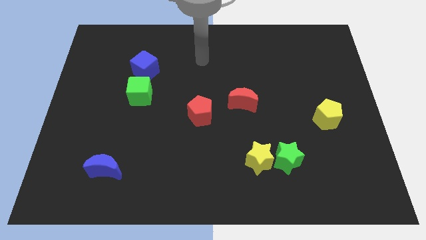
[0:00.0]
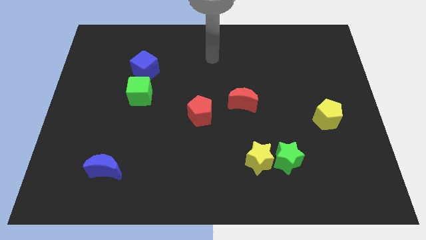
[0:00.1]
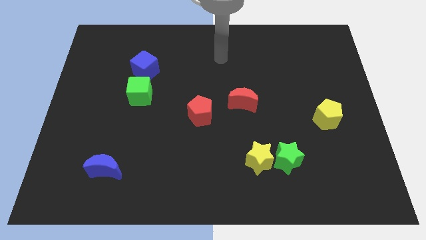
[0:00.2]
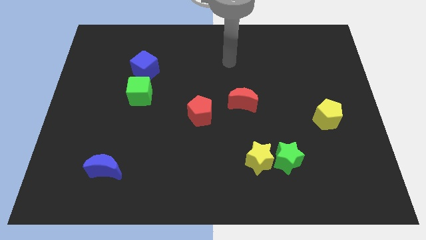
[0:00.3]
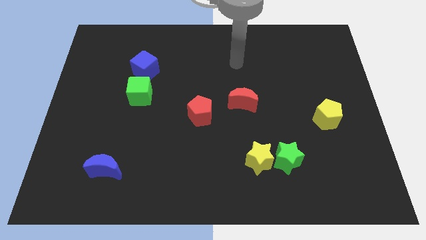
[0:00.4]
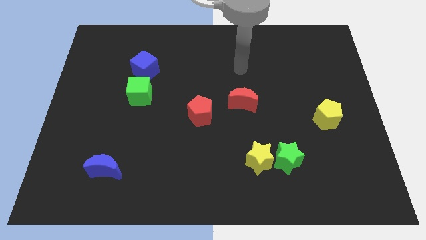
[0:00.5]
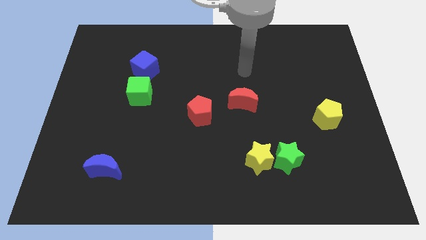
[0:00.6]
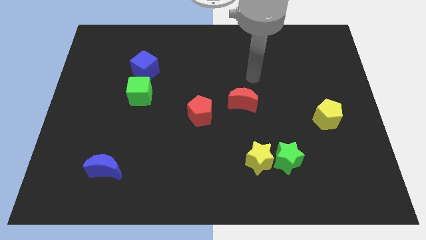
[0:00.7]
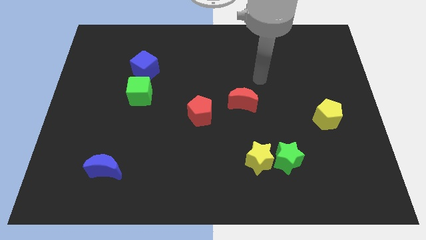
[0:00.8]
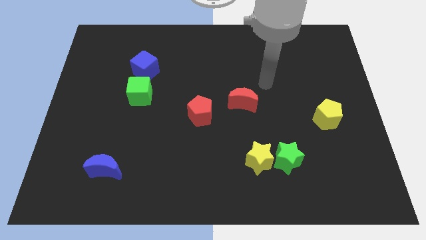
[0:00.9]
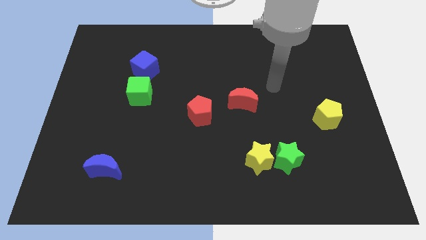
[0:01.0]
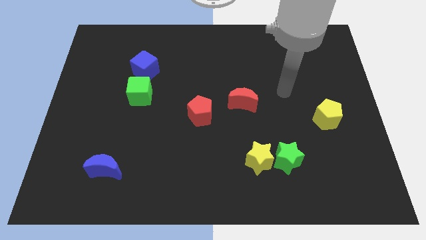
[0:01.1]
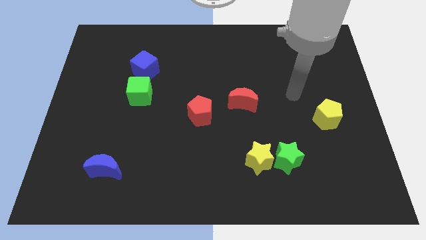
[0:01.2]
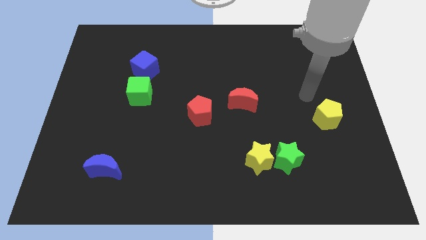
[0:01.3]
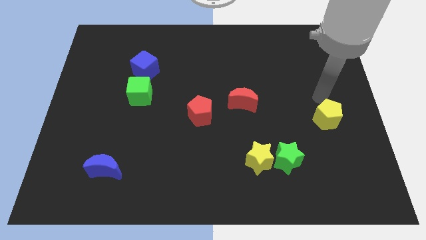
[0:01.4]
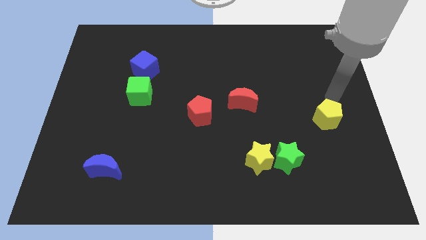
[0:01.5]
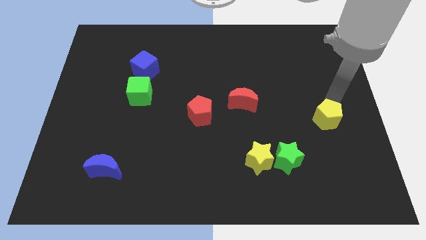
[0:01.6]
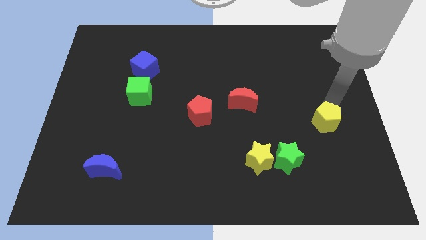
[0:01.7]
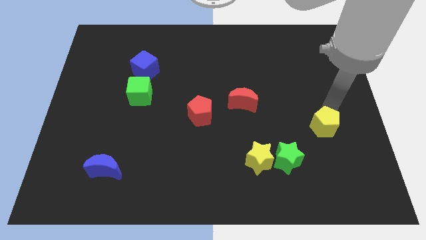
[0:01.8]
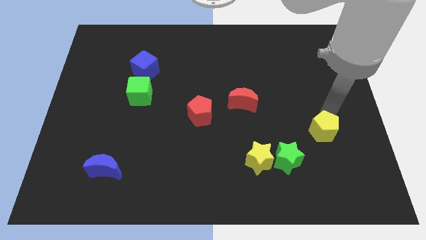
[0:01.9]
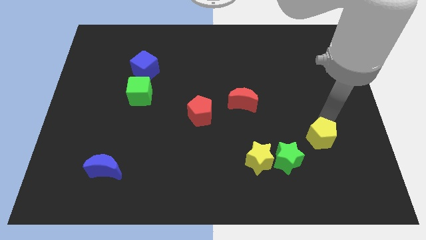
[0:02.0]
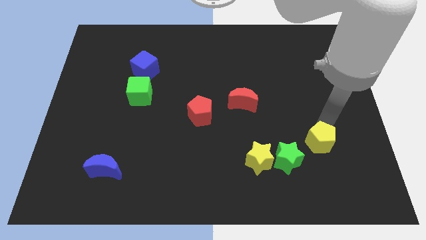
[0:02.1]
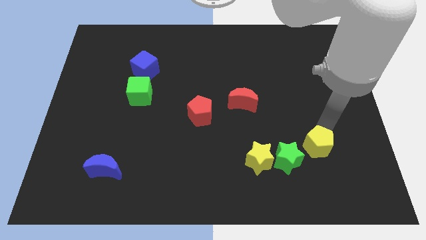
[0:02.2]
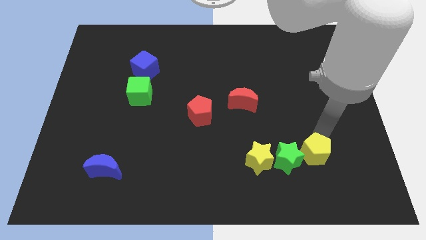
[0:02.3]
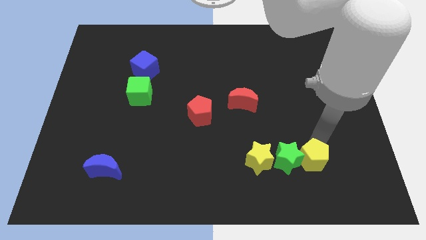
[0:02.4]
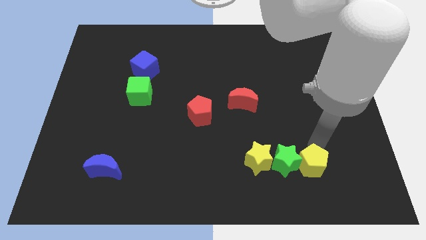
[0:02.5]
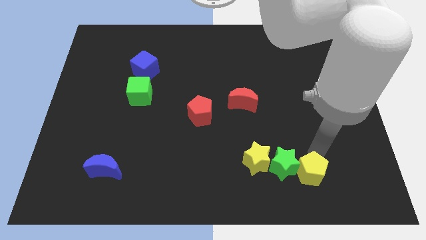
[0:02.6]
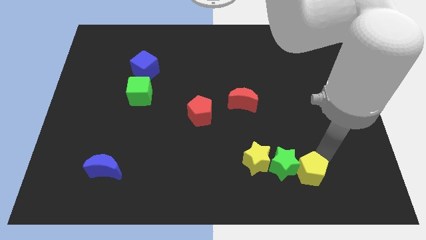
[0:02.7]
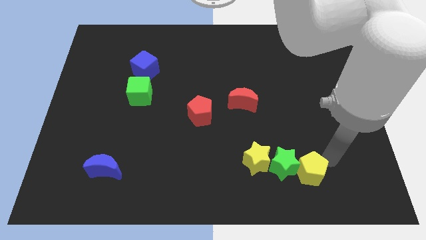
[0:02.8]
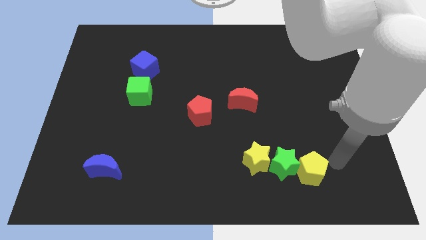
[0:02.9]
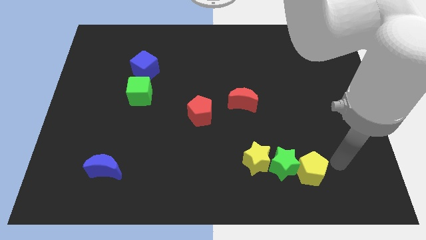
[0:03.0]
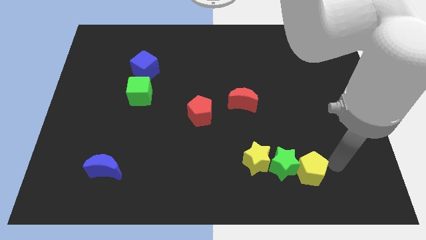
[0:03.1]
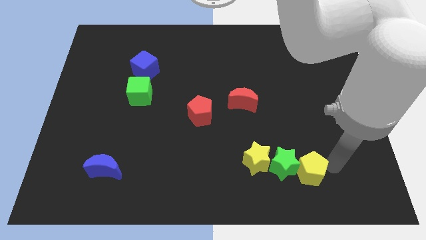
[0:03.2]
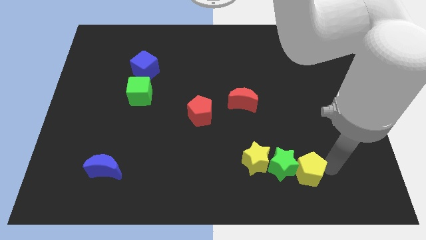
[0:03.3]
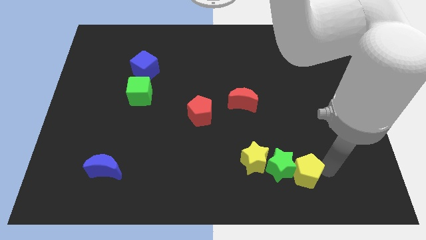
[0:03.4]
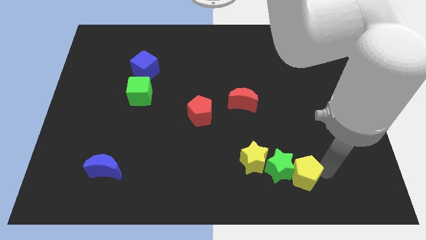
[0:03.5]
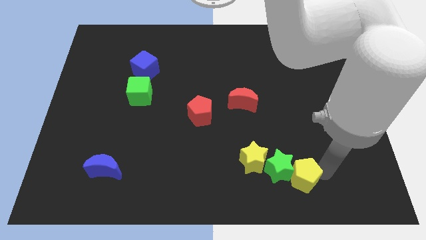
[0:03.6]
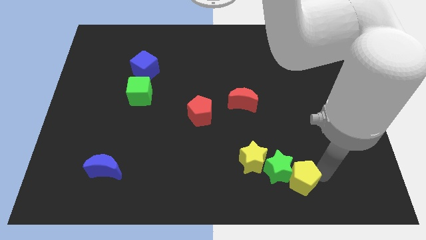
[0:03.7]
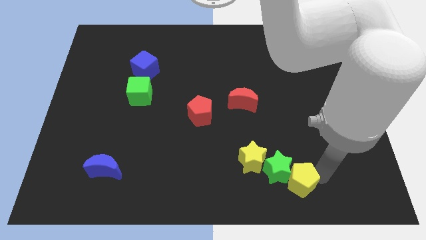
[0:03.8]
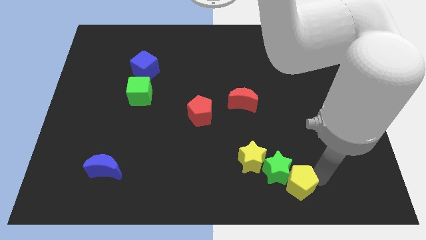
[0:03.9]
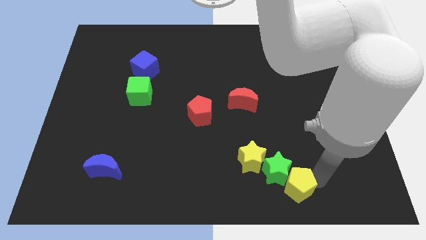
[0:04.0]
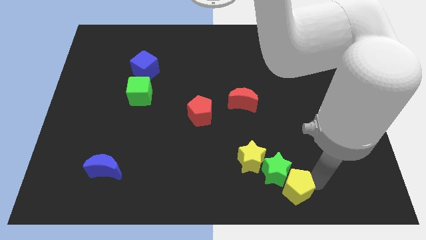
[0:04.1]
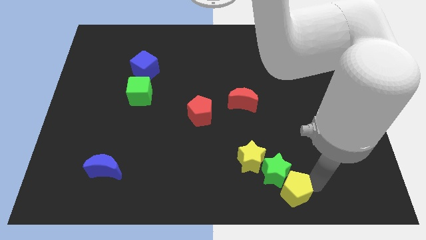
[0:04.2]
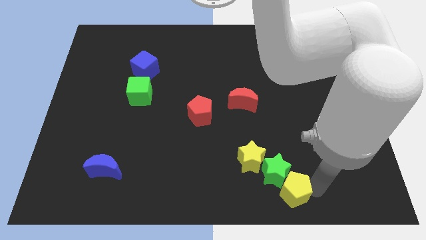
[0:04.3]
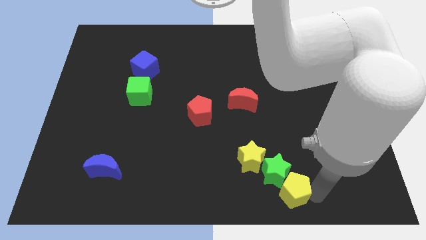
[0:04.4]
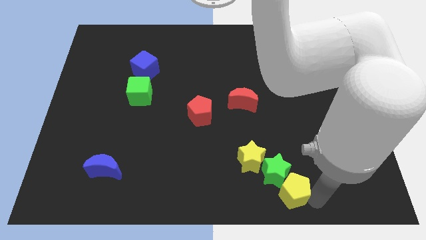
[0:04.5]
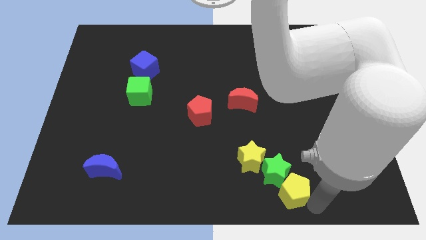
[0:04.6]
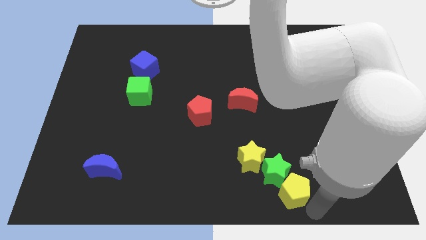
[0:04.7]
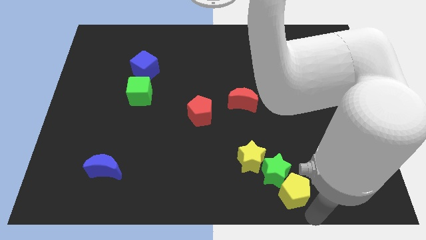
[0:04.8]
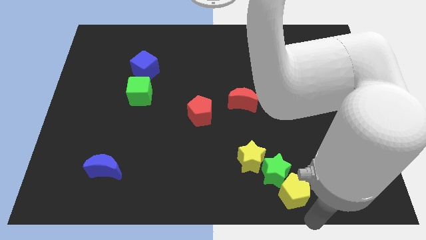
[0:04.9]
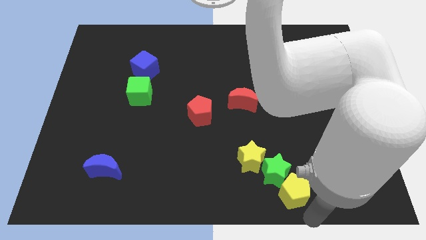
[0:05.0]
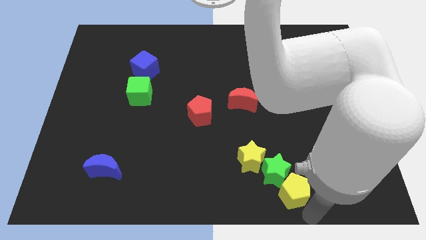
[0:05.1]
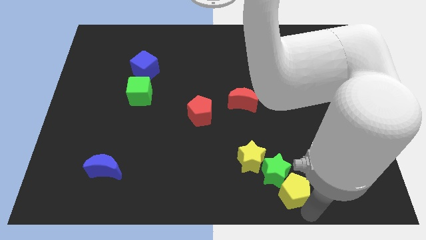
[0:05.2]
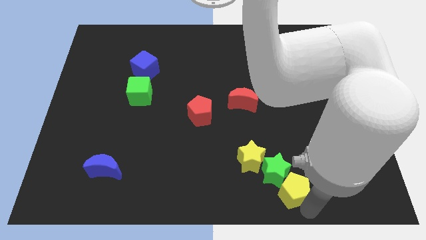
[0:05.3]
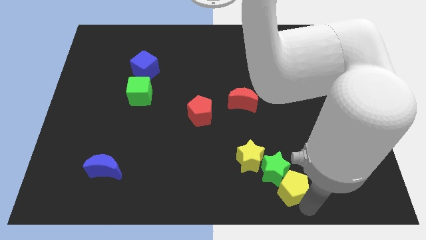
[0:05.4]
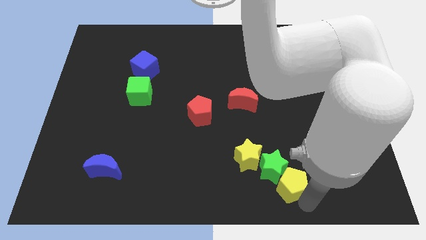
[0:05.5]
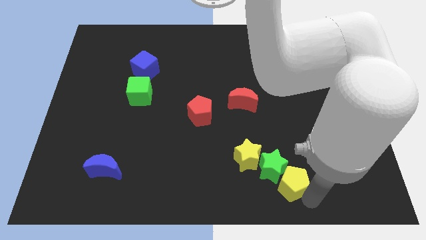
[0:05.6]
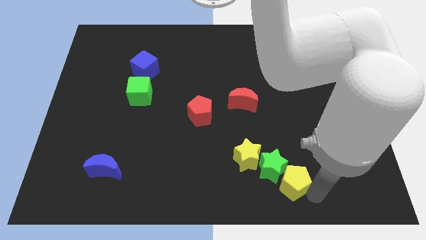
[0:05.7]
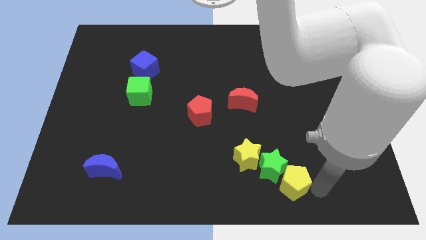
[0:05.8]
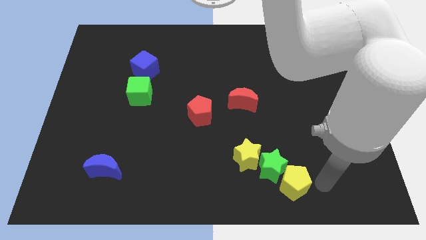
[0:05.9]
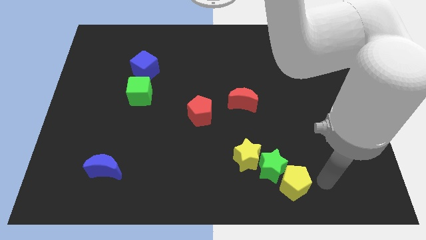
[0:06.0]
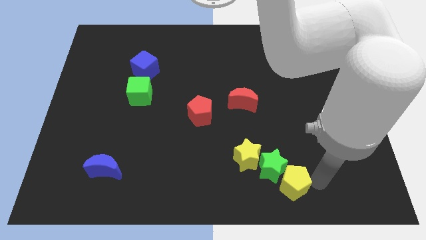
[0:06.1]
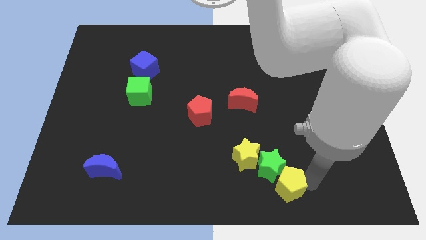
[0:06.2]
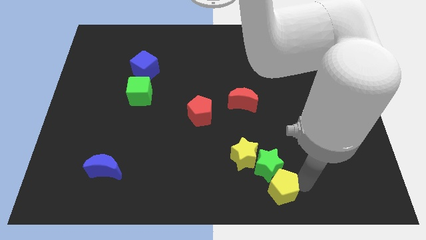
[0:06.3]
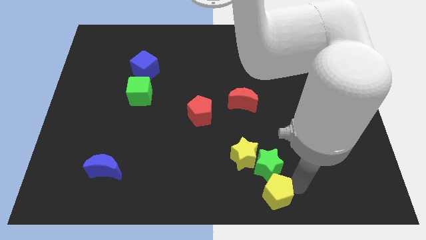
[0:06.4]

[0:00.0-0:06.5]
slide the yellow pentagon to the bottom side
